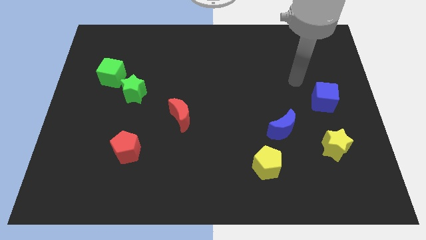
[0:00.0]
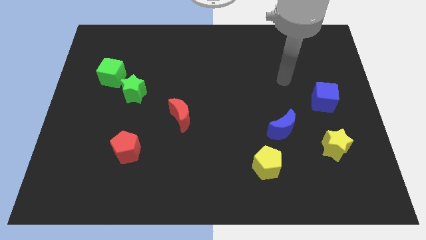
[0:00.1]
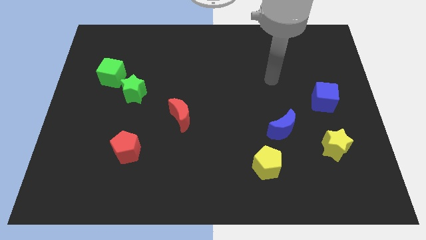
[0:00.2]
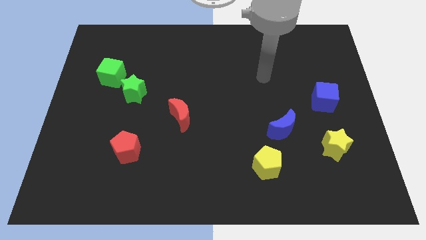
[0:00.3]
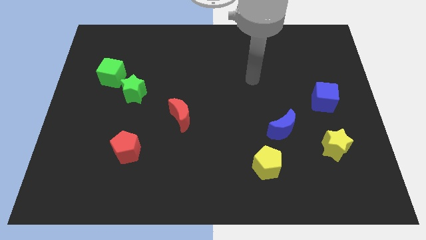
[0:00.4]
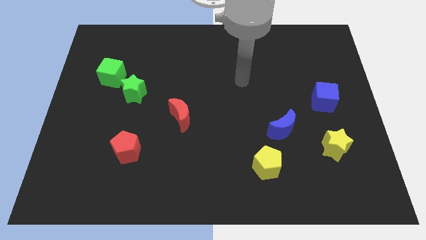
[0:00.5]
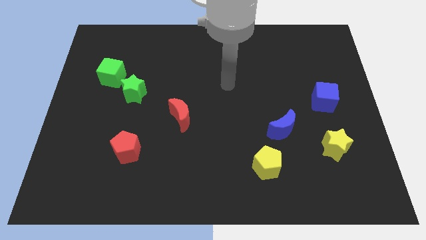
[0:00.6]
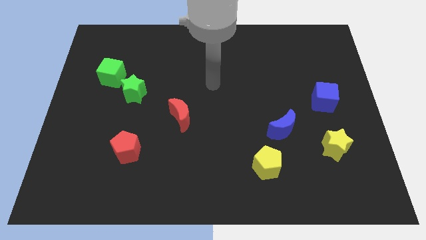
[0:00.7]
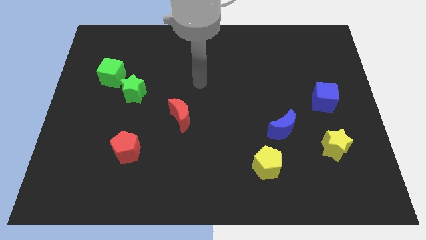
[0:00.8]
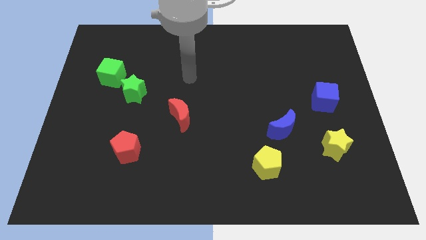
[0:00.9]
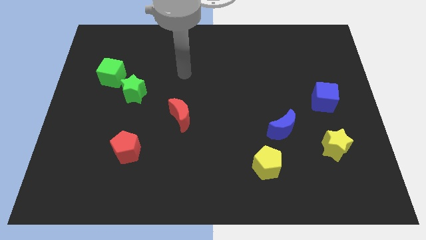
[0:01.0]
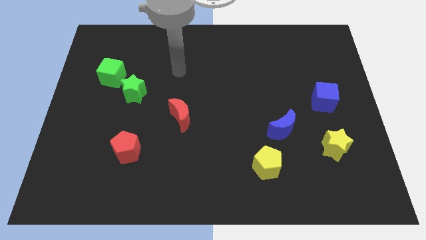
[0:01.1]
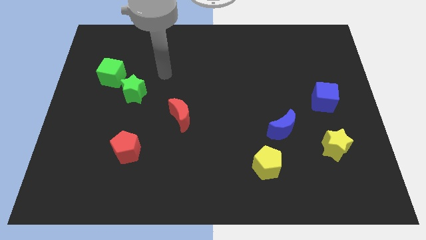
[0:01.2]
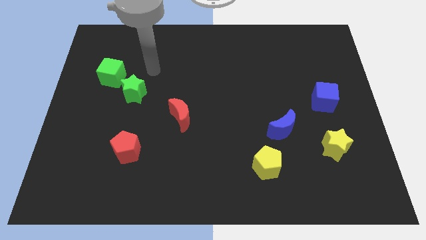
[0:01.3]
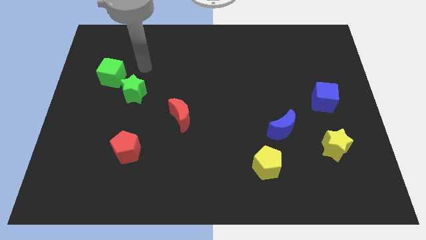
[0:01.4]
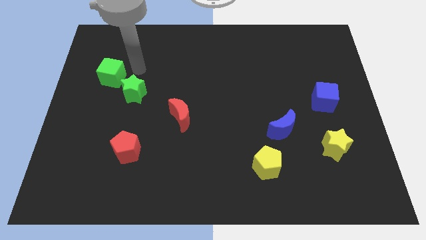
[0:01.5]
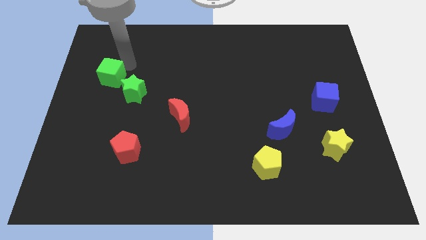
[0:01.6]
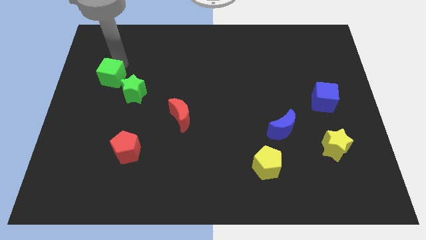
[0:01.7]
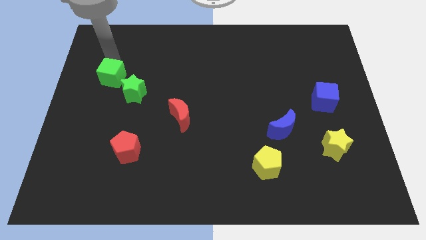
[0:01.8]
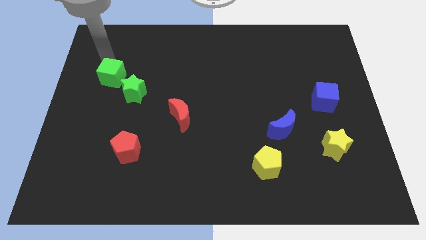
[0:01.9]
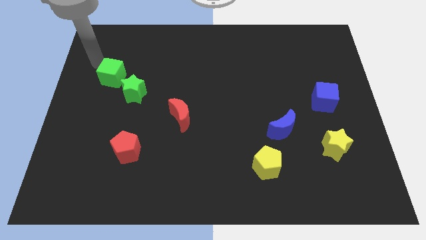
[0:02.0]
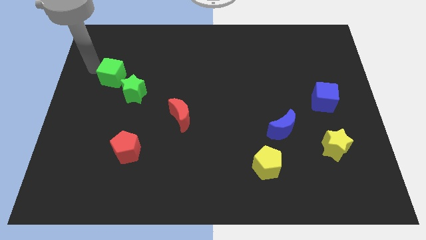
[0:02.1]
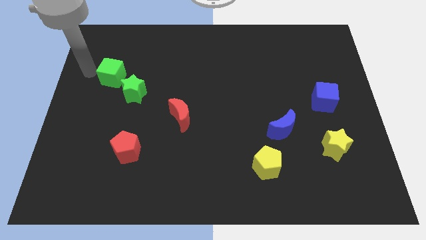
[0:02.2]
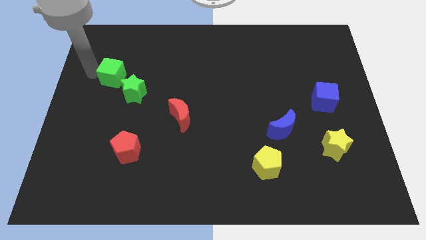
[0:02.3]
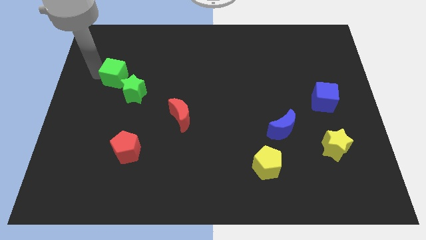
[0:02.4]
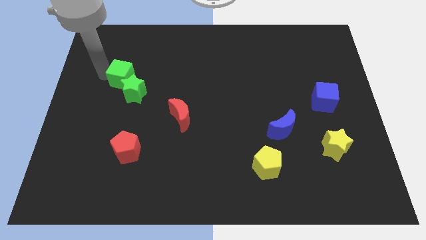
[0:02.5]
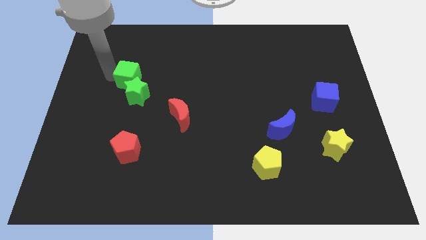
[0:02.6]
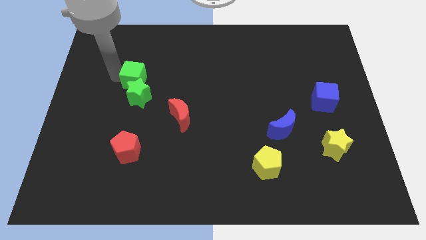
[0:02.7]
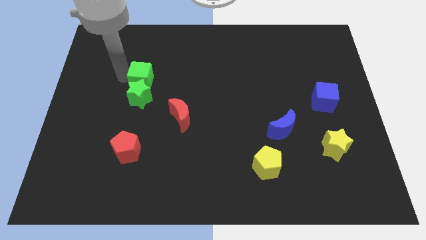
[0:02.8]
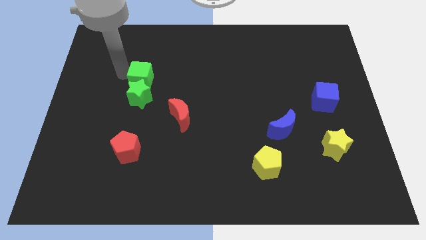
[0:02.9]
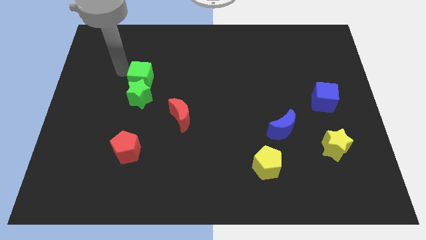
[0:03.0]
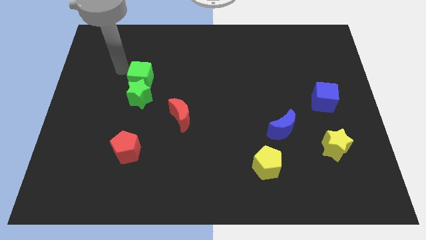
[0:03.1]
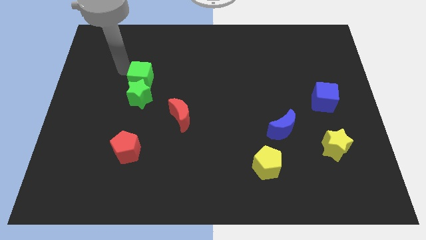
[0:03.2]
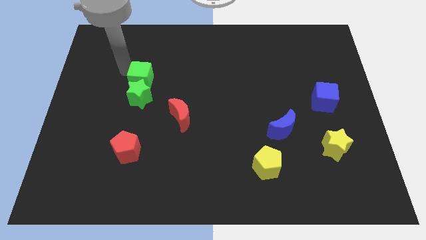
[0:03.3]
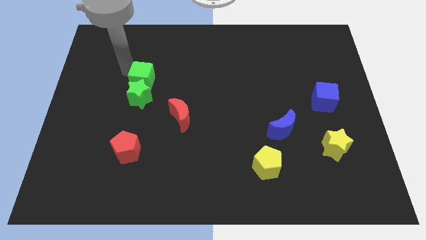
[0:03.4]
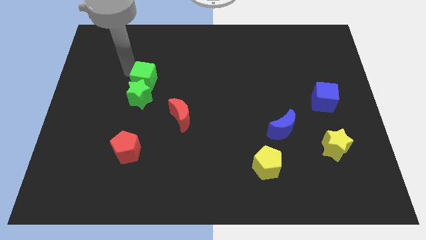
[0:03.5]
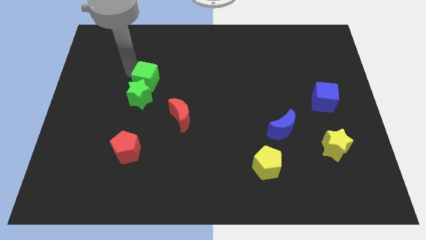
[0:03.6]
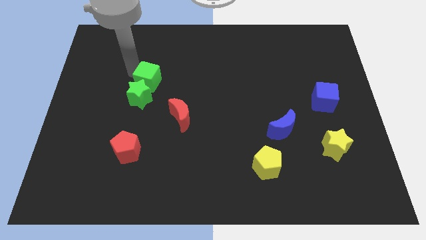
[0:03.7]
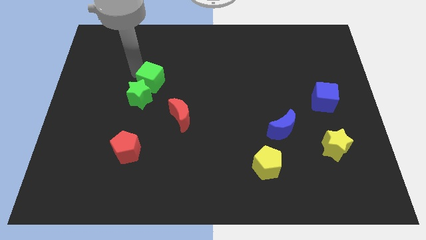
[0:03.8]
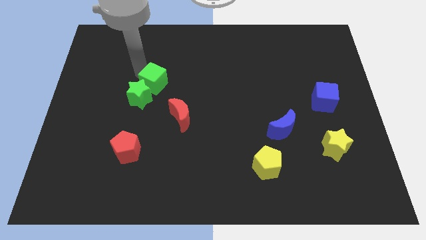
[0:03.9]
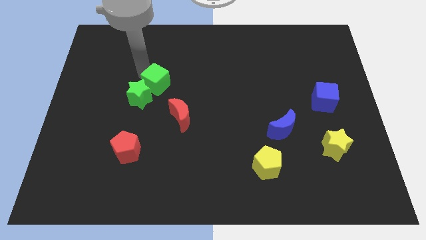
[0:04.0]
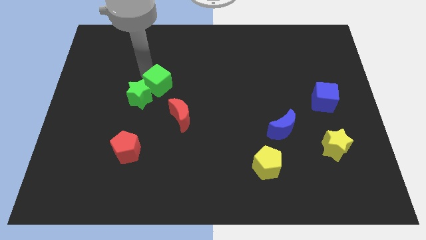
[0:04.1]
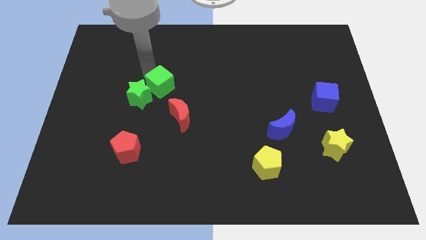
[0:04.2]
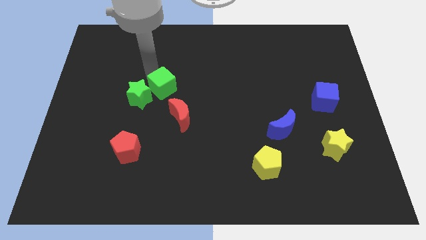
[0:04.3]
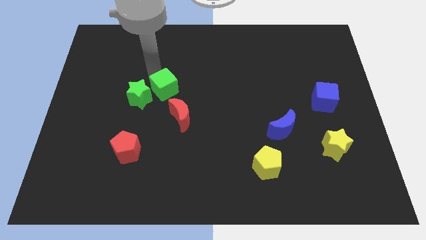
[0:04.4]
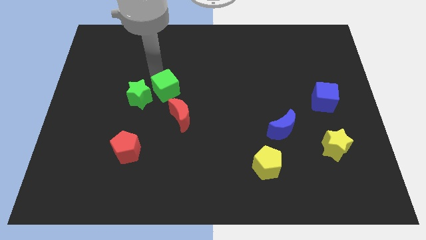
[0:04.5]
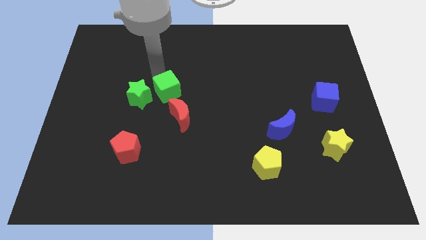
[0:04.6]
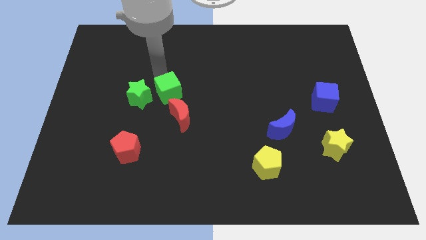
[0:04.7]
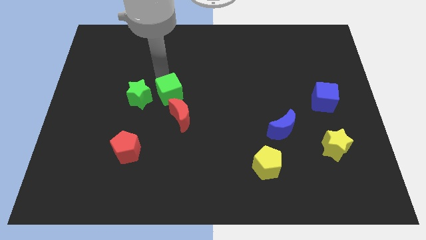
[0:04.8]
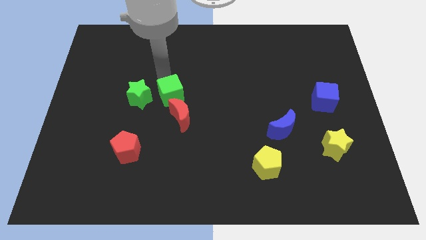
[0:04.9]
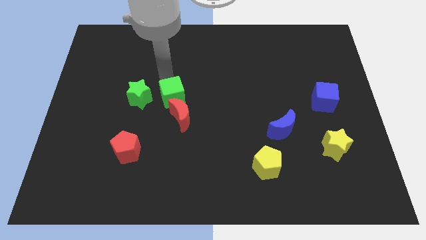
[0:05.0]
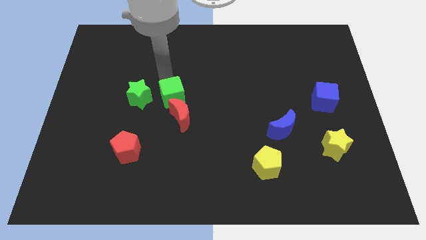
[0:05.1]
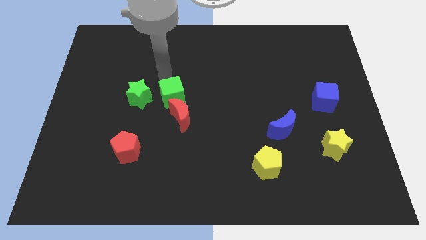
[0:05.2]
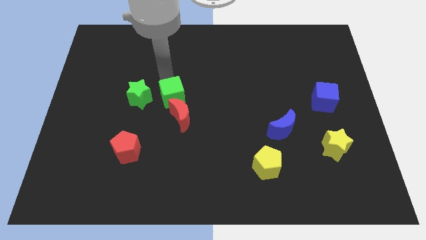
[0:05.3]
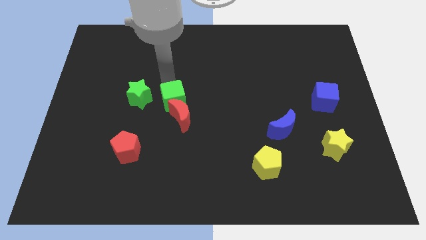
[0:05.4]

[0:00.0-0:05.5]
push the green cube towards the red moon

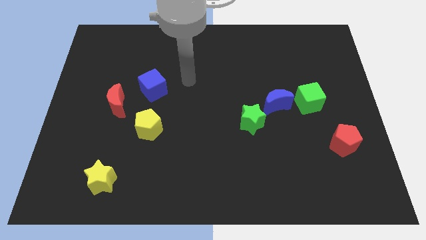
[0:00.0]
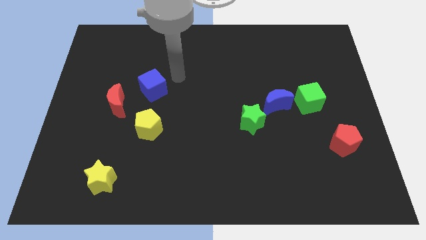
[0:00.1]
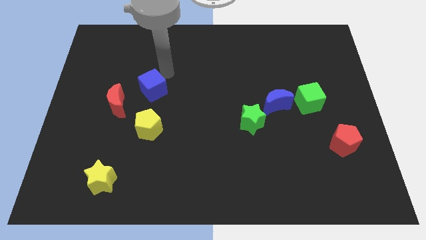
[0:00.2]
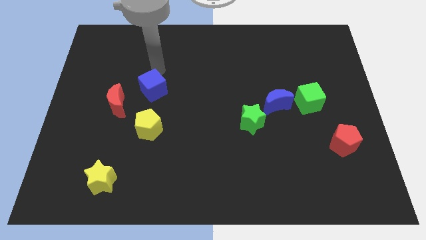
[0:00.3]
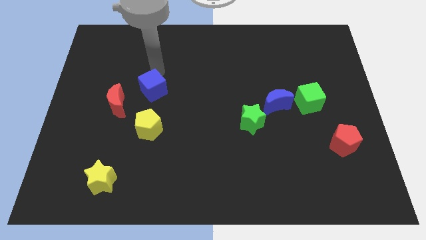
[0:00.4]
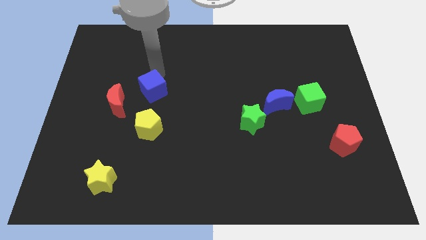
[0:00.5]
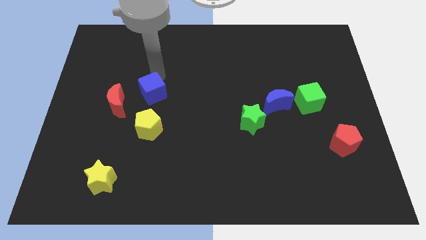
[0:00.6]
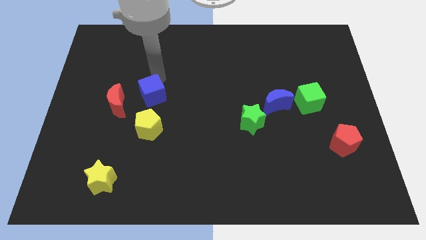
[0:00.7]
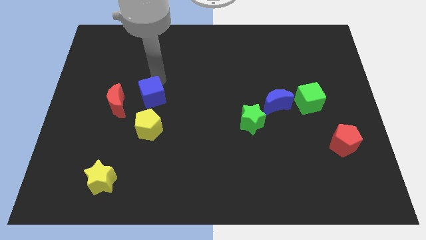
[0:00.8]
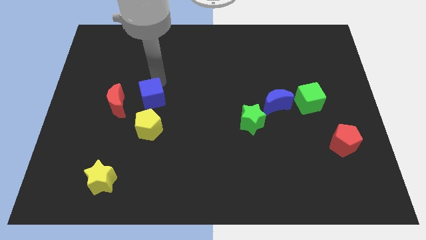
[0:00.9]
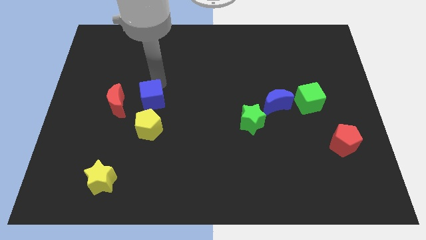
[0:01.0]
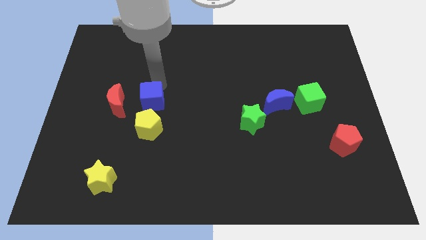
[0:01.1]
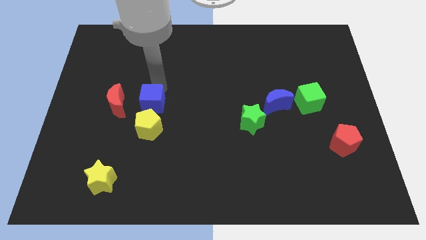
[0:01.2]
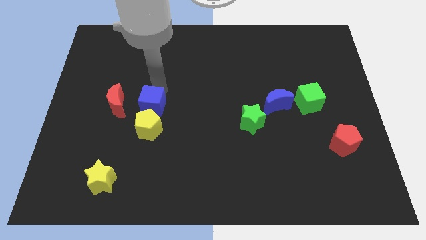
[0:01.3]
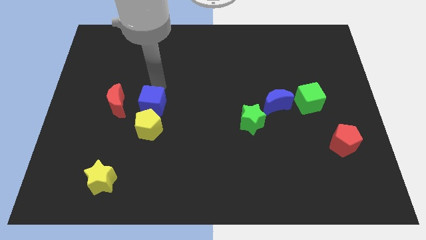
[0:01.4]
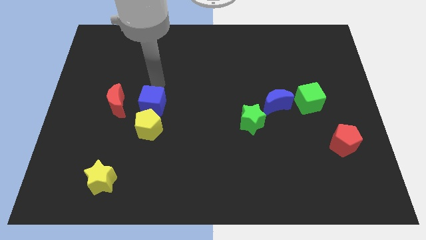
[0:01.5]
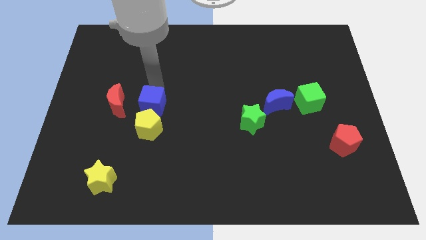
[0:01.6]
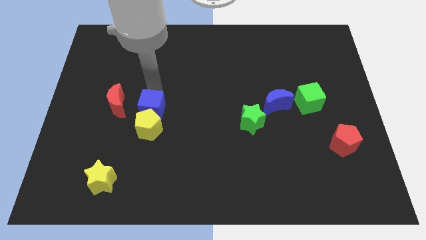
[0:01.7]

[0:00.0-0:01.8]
slide the blue cube to the yellow pentagon

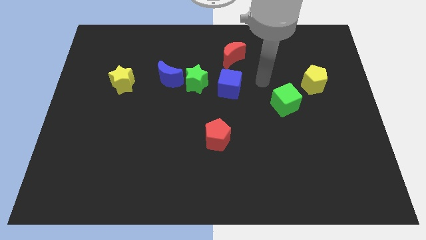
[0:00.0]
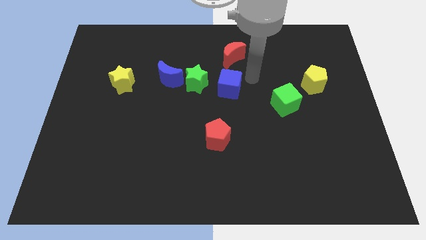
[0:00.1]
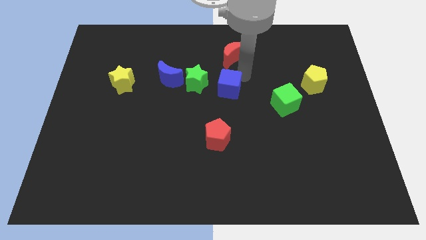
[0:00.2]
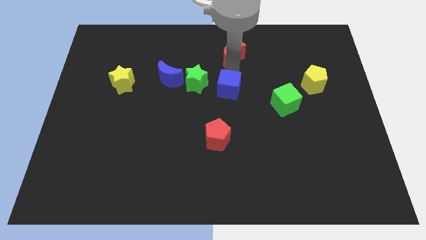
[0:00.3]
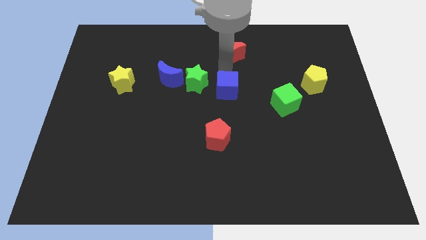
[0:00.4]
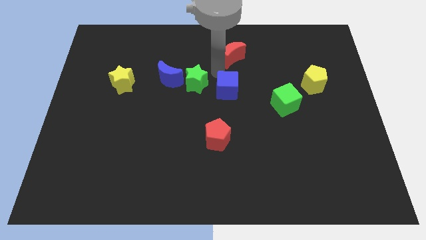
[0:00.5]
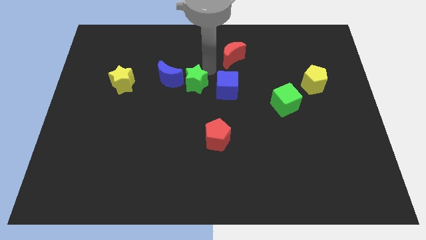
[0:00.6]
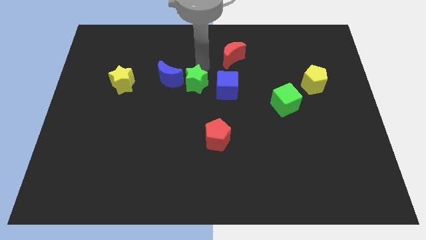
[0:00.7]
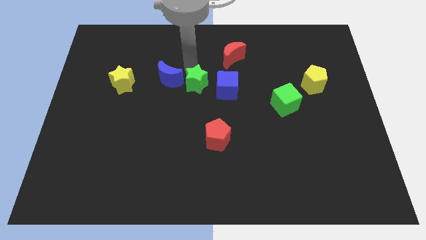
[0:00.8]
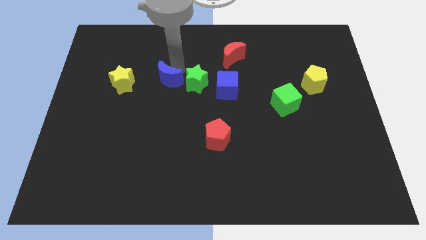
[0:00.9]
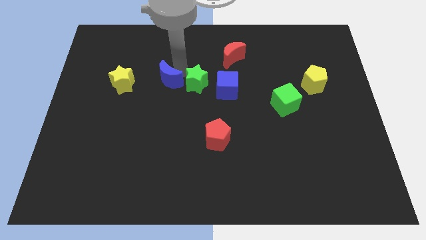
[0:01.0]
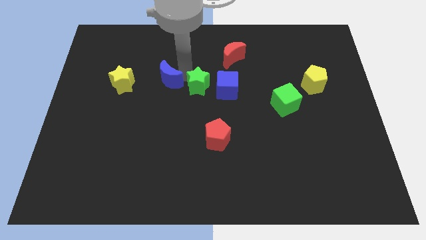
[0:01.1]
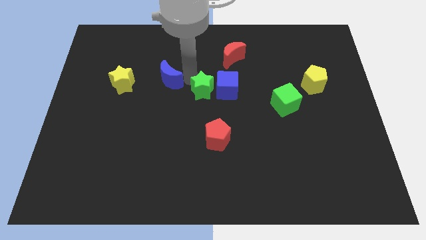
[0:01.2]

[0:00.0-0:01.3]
push the green star to the blue cube
